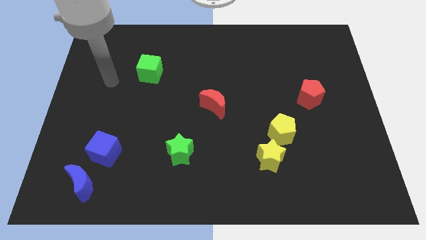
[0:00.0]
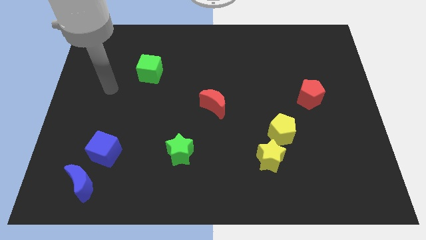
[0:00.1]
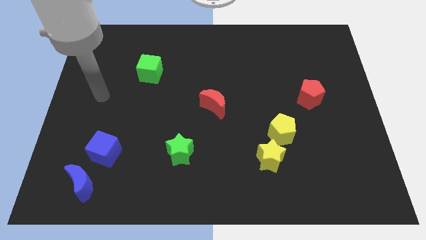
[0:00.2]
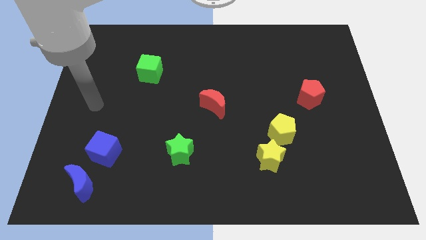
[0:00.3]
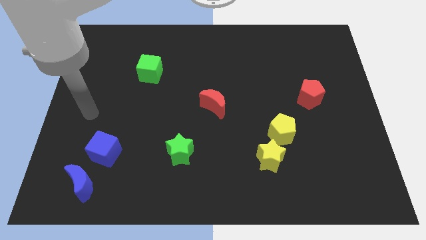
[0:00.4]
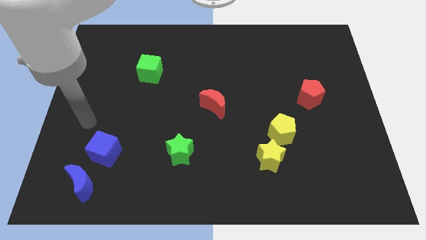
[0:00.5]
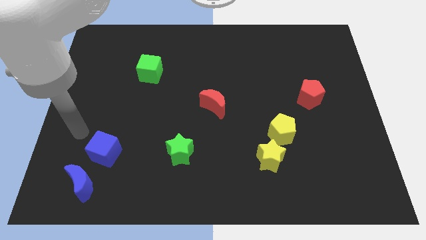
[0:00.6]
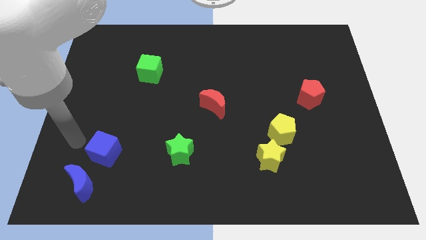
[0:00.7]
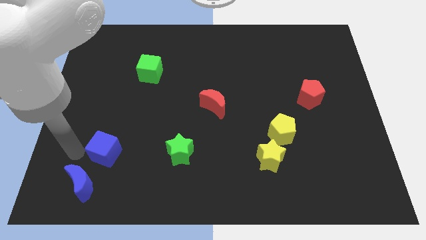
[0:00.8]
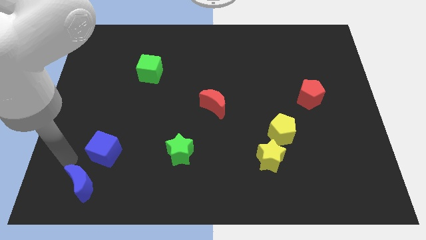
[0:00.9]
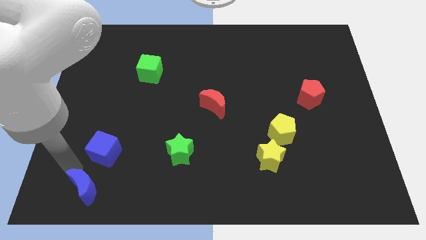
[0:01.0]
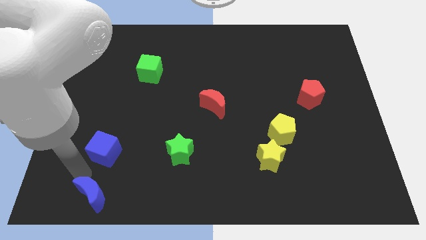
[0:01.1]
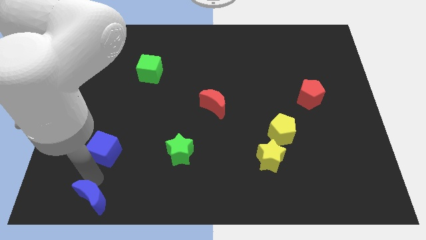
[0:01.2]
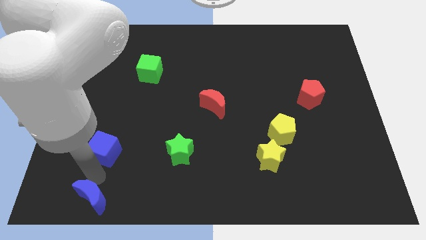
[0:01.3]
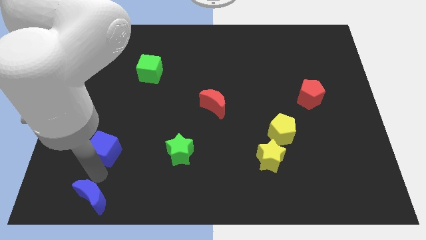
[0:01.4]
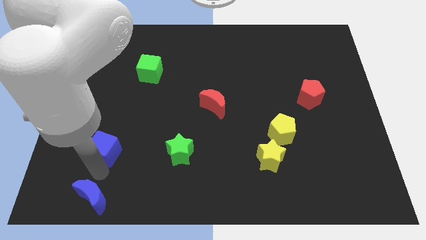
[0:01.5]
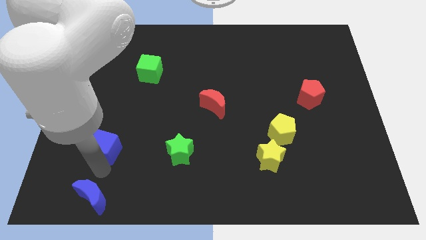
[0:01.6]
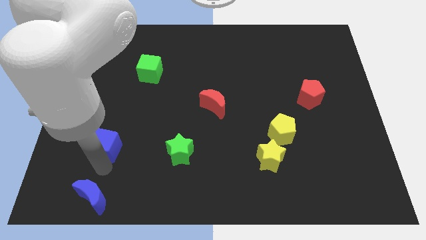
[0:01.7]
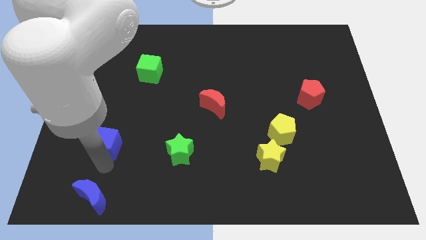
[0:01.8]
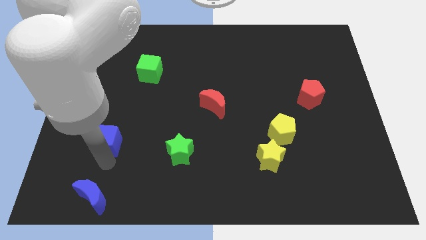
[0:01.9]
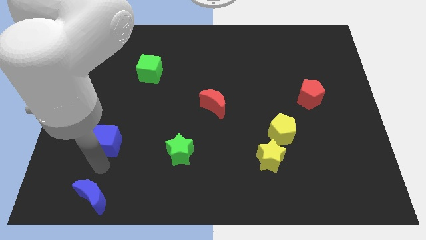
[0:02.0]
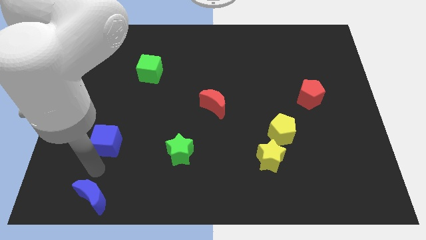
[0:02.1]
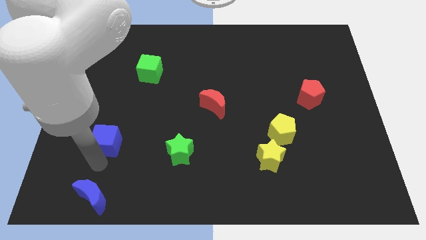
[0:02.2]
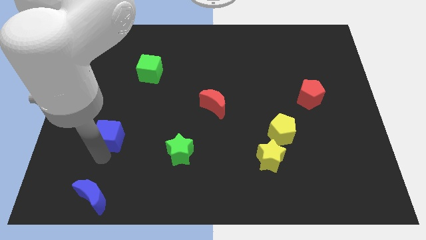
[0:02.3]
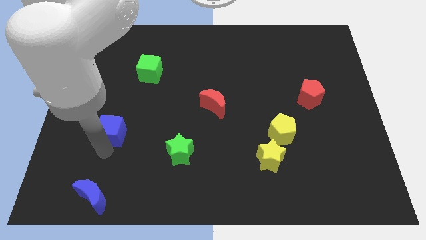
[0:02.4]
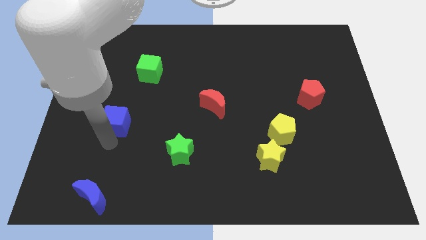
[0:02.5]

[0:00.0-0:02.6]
slightly push the blue cube up

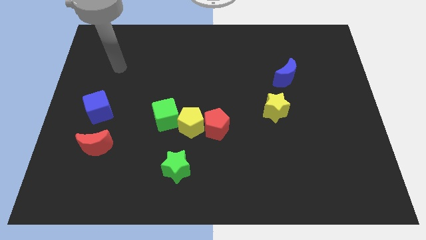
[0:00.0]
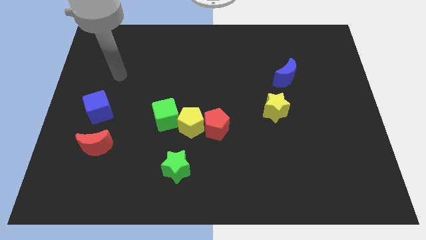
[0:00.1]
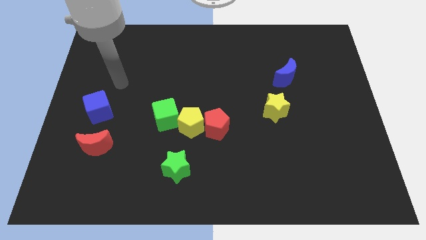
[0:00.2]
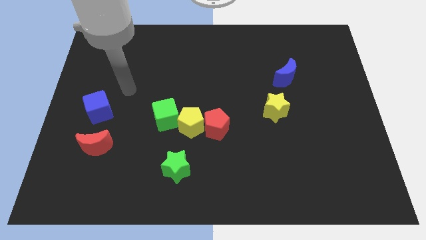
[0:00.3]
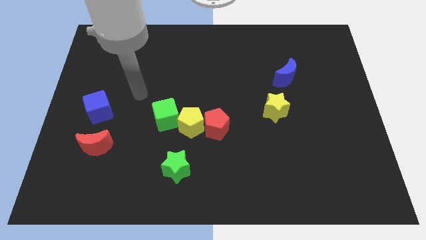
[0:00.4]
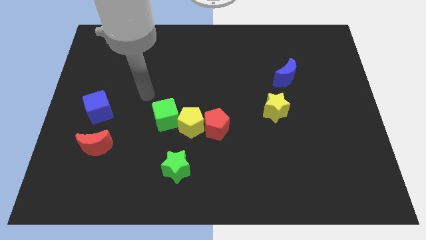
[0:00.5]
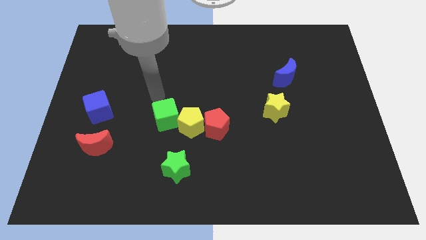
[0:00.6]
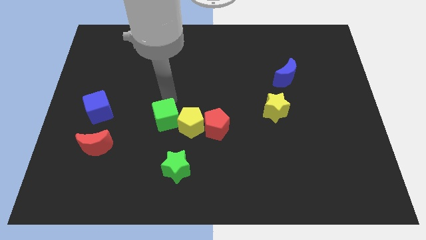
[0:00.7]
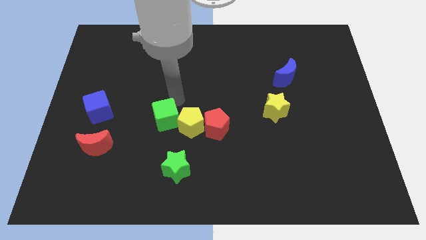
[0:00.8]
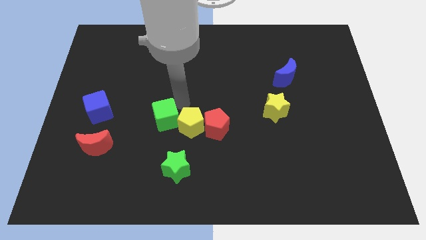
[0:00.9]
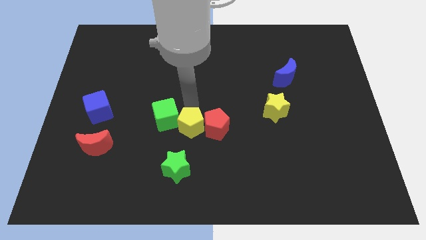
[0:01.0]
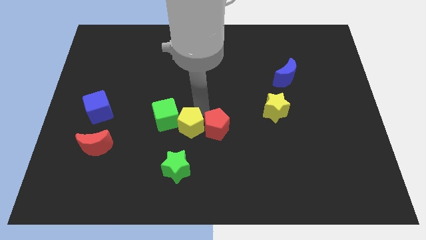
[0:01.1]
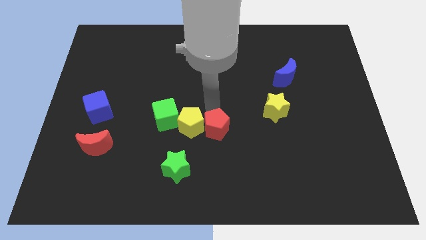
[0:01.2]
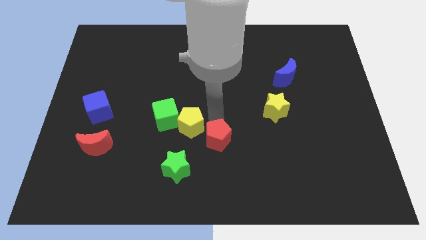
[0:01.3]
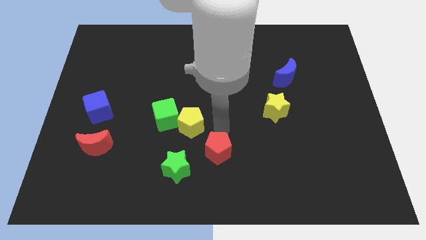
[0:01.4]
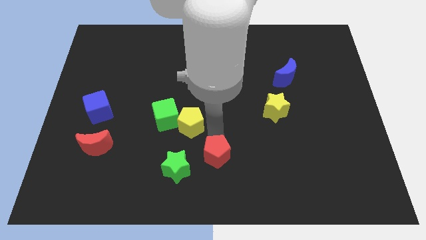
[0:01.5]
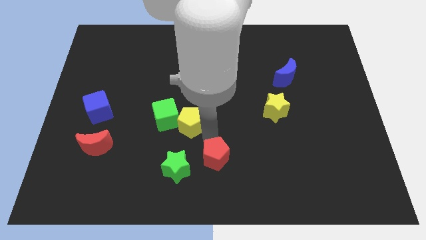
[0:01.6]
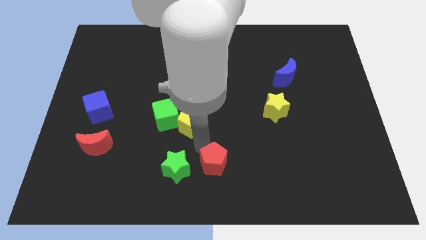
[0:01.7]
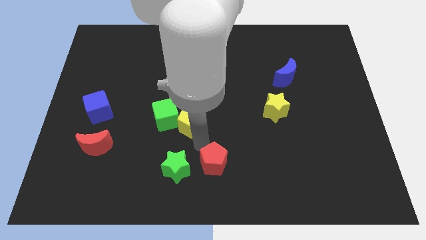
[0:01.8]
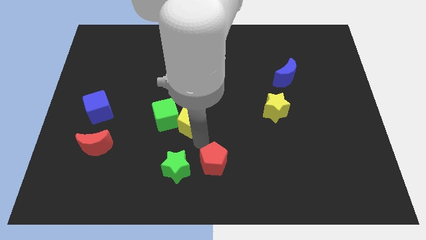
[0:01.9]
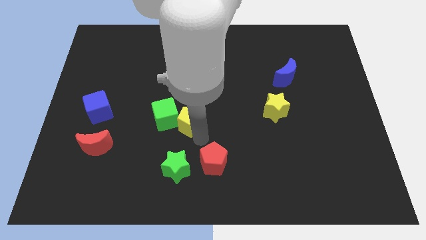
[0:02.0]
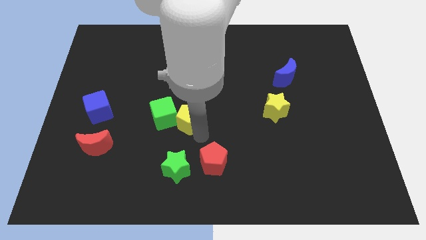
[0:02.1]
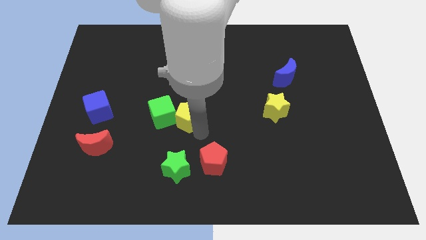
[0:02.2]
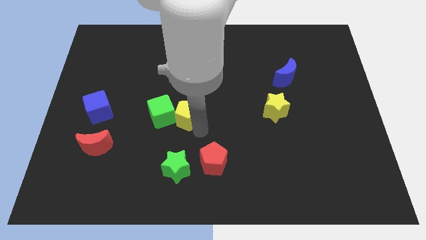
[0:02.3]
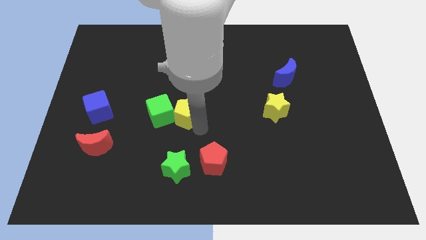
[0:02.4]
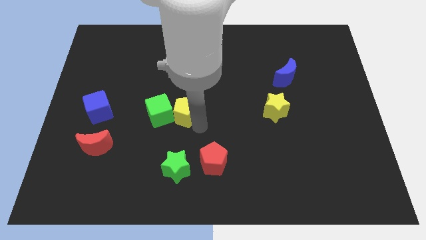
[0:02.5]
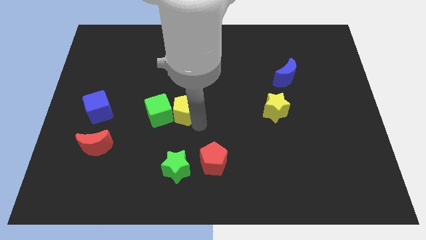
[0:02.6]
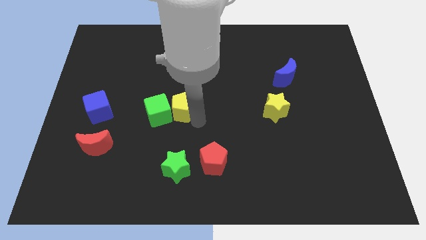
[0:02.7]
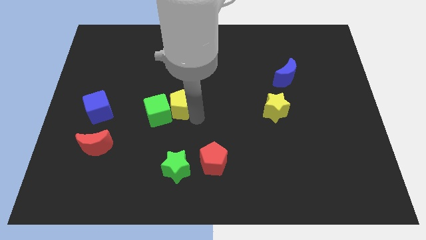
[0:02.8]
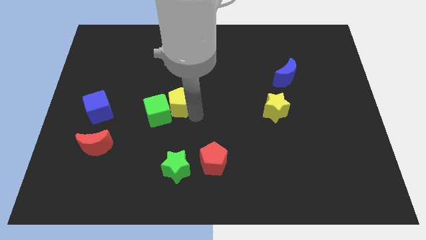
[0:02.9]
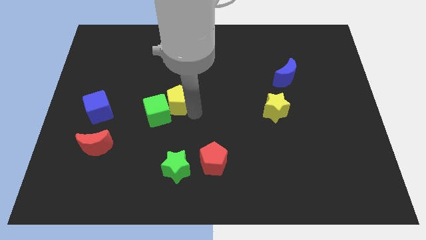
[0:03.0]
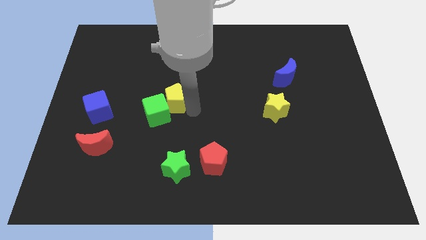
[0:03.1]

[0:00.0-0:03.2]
slide the yellow pentagon a bit diagonally upwards and left

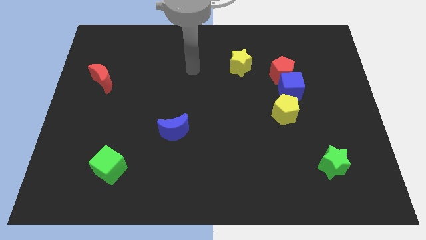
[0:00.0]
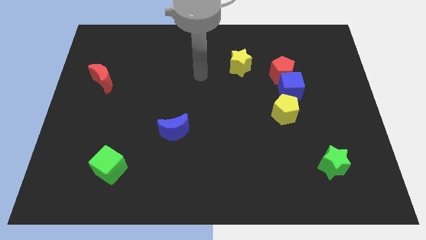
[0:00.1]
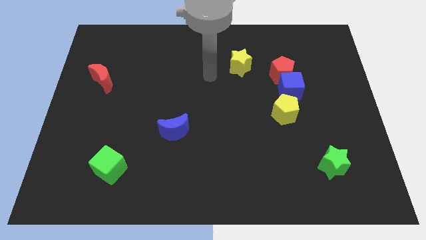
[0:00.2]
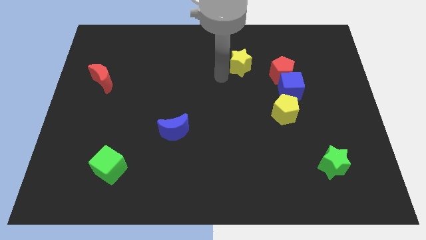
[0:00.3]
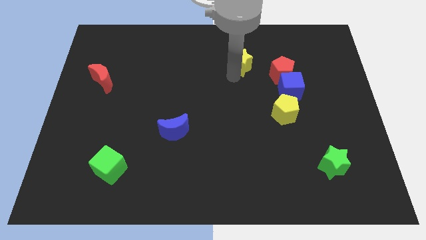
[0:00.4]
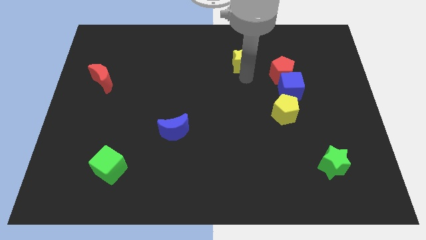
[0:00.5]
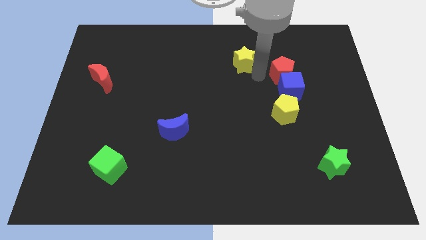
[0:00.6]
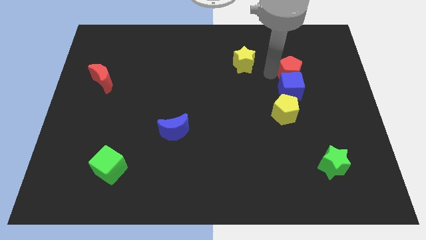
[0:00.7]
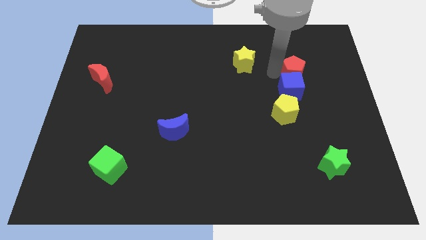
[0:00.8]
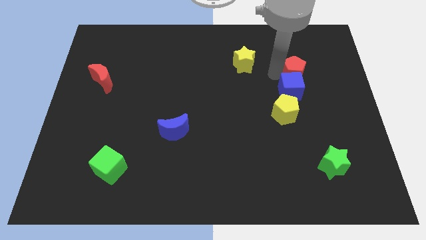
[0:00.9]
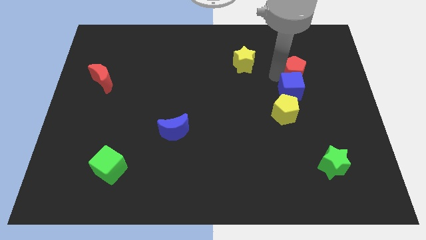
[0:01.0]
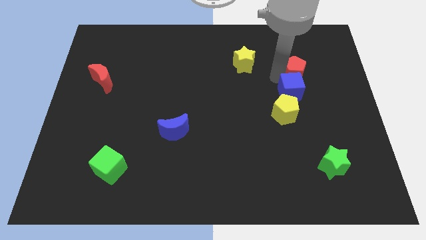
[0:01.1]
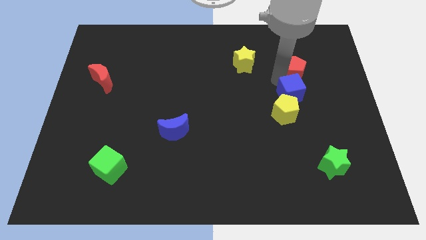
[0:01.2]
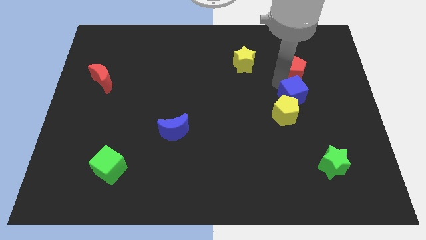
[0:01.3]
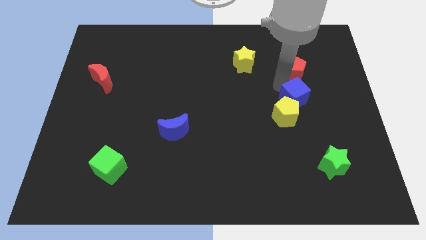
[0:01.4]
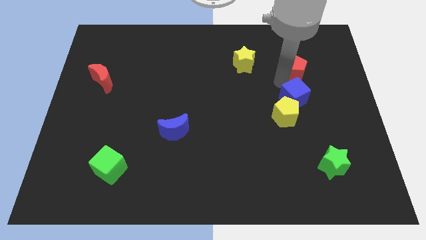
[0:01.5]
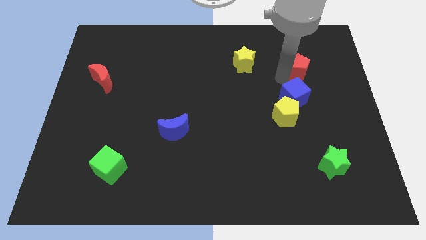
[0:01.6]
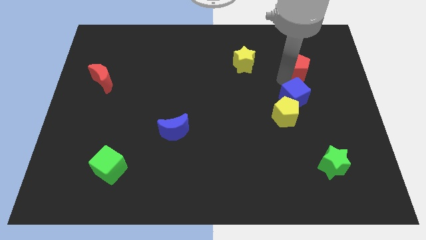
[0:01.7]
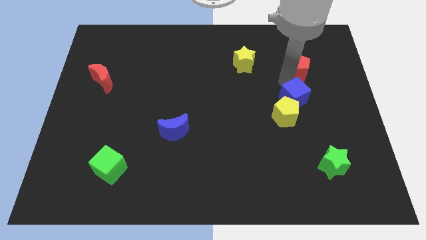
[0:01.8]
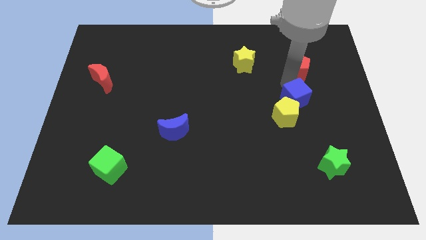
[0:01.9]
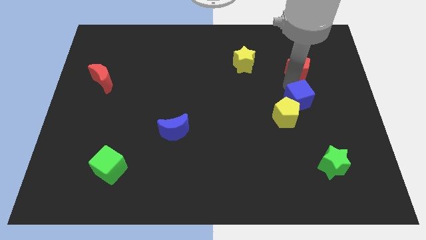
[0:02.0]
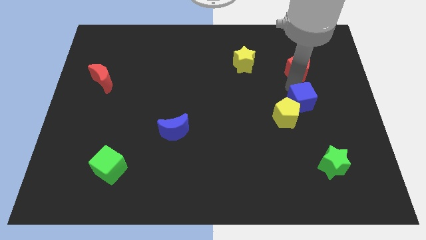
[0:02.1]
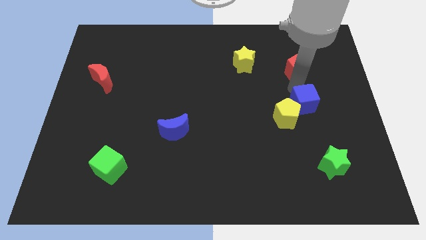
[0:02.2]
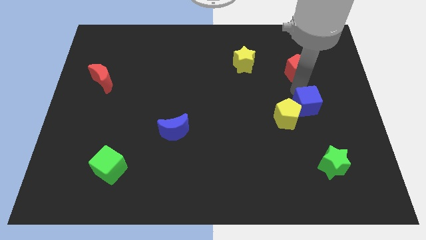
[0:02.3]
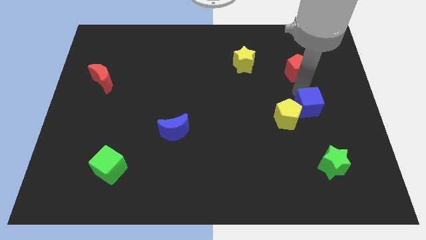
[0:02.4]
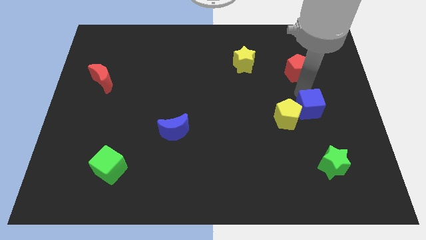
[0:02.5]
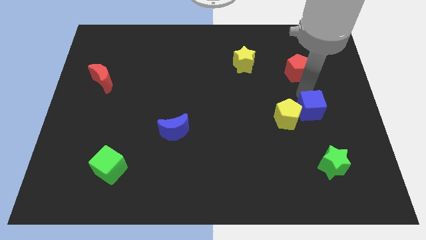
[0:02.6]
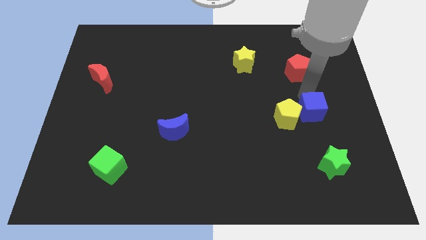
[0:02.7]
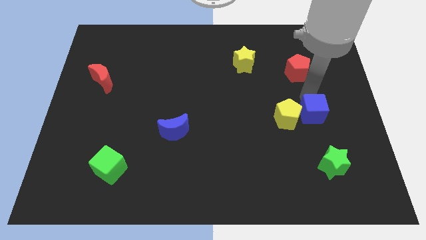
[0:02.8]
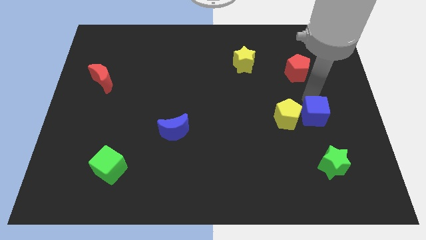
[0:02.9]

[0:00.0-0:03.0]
move the blue cube a little down
